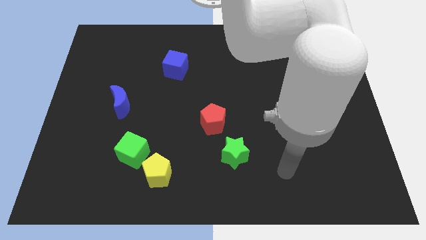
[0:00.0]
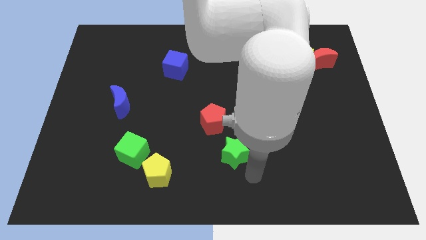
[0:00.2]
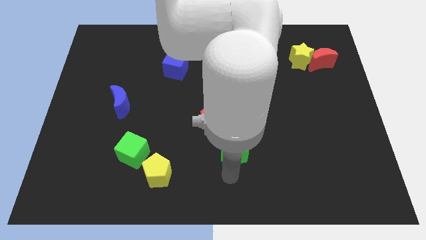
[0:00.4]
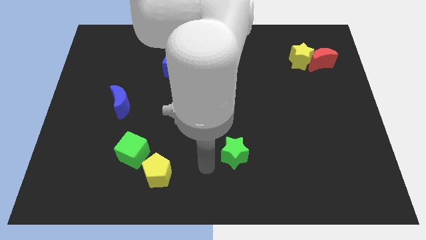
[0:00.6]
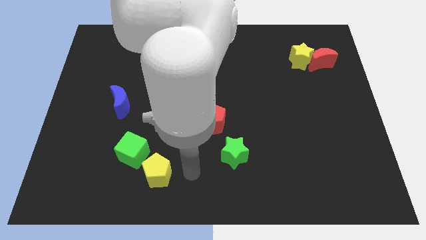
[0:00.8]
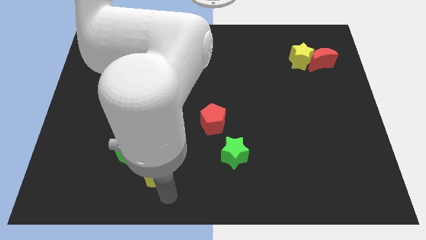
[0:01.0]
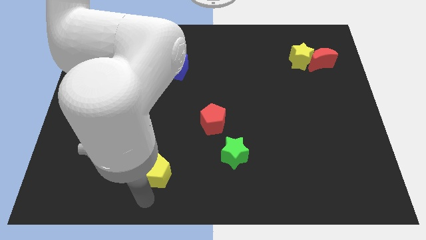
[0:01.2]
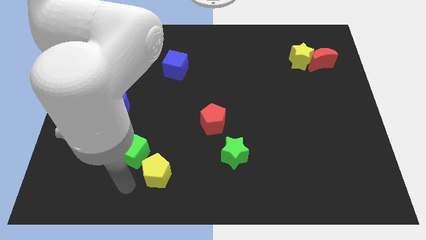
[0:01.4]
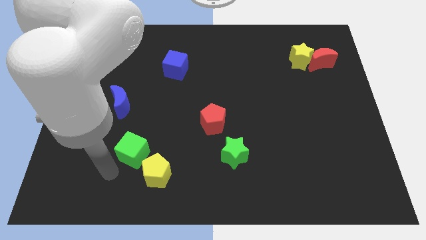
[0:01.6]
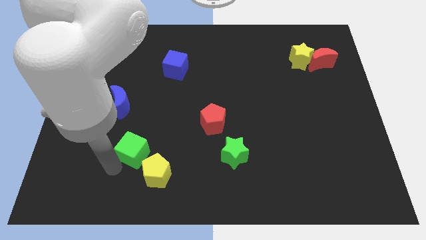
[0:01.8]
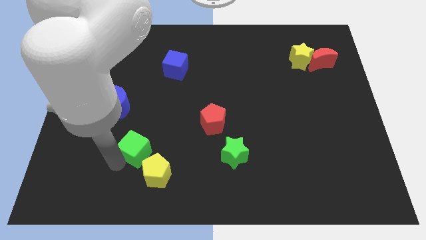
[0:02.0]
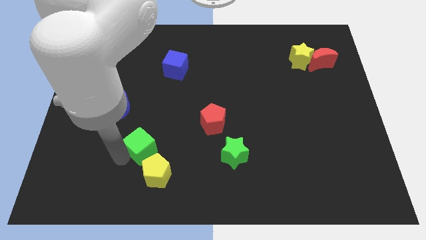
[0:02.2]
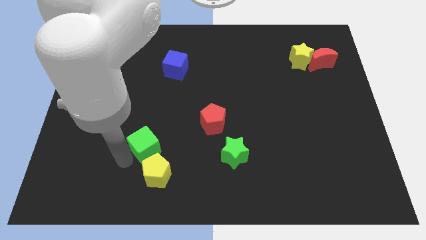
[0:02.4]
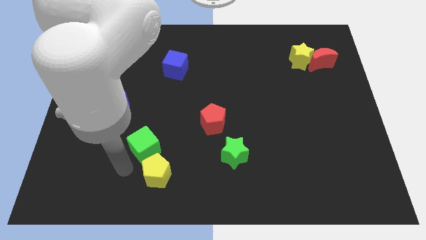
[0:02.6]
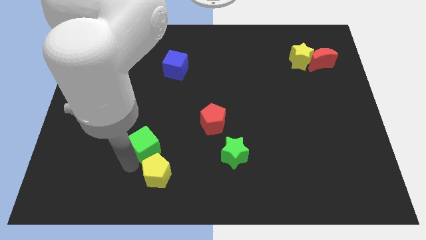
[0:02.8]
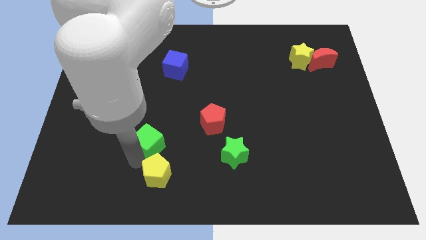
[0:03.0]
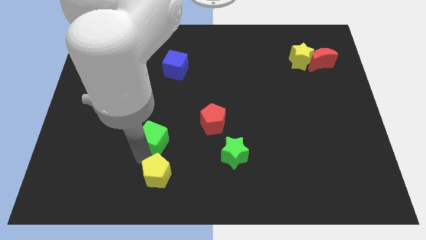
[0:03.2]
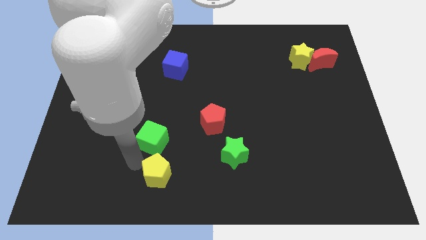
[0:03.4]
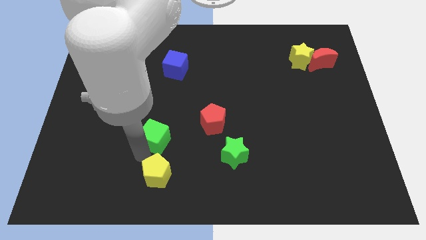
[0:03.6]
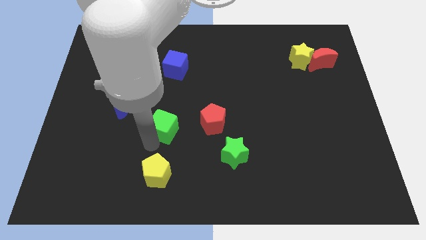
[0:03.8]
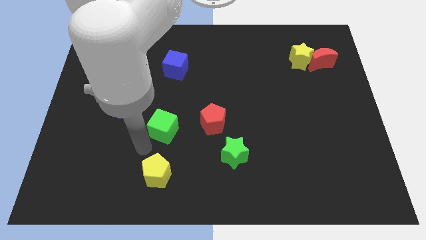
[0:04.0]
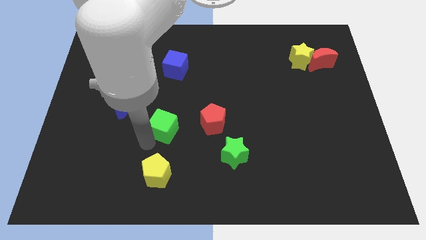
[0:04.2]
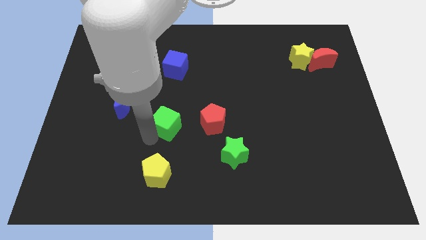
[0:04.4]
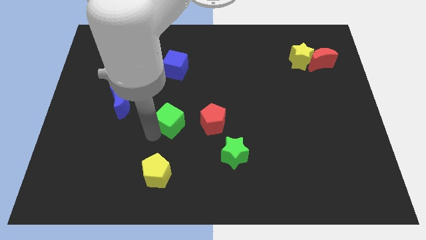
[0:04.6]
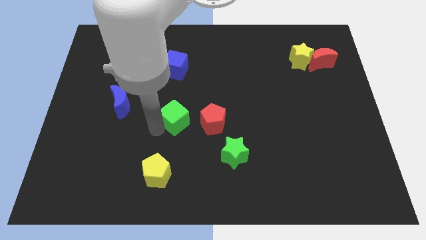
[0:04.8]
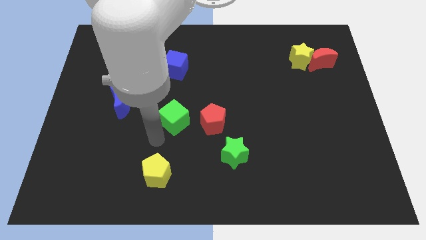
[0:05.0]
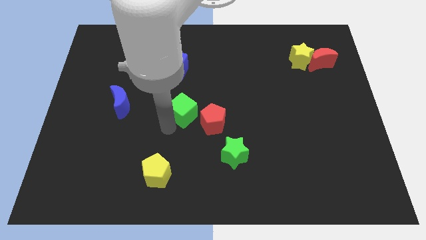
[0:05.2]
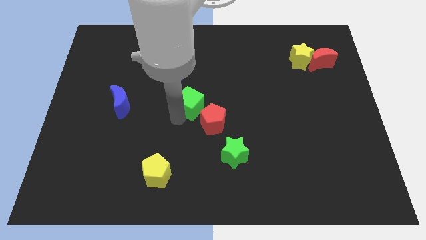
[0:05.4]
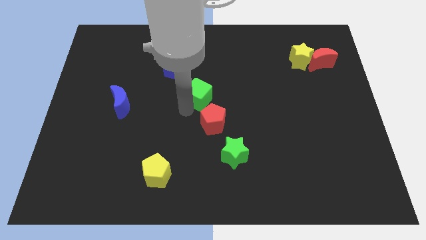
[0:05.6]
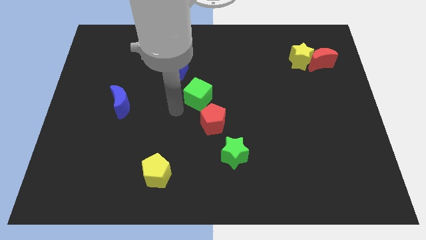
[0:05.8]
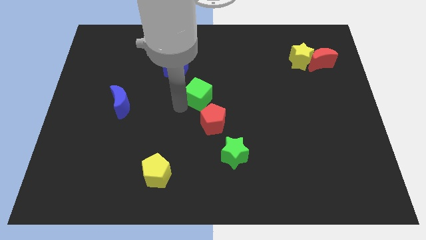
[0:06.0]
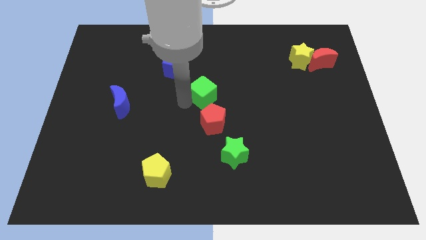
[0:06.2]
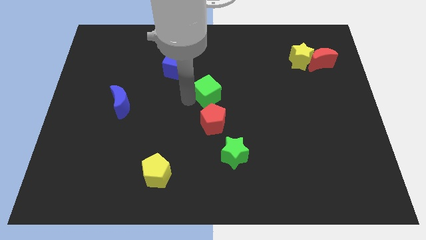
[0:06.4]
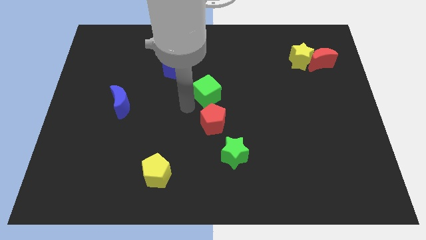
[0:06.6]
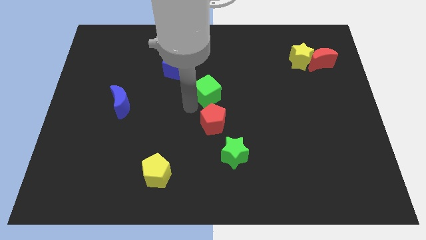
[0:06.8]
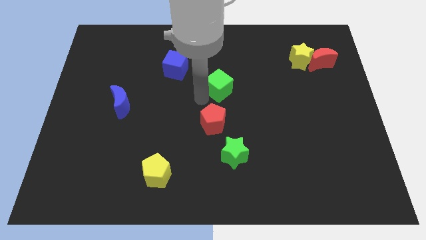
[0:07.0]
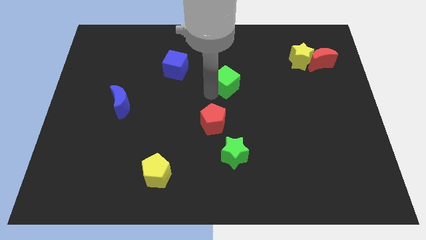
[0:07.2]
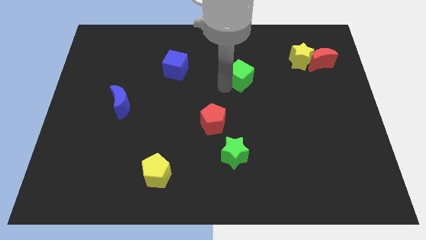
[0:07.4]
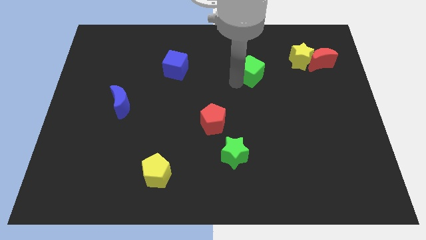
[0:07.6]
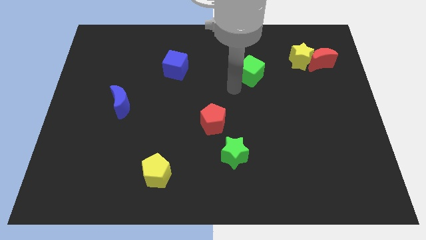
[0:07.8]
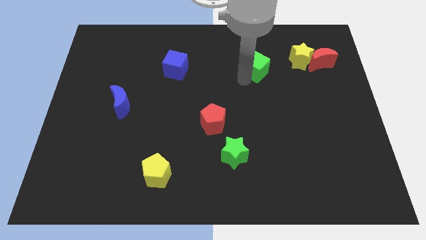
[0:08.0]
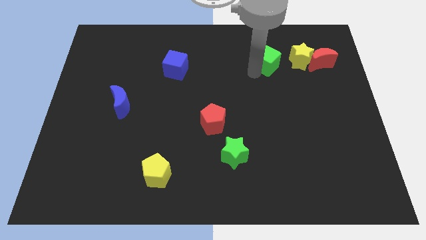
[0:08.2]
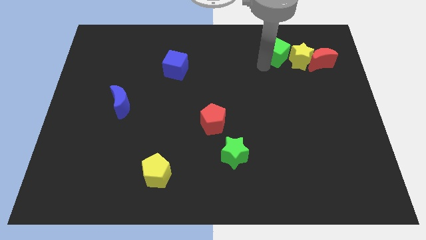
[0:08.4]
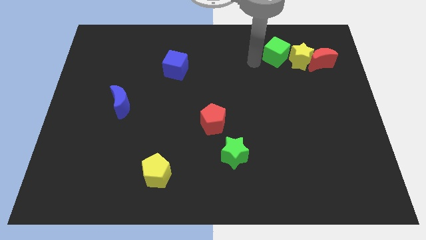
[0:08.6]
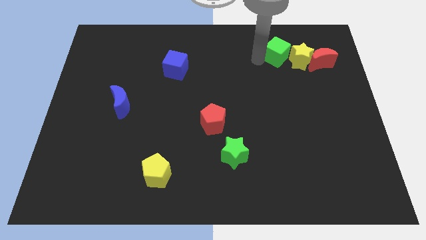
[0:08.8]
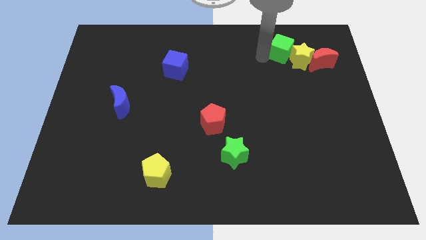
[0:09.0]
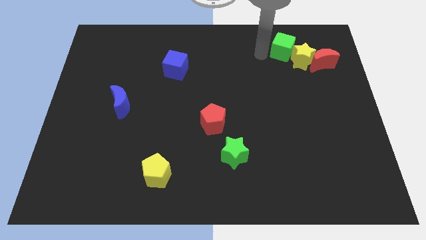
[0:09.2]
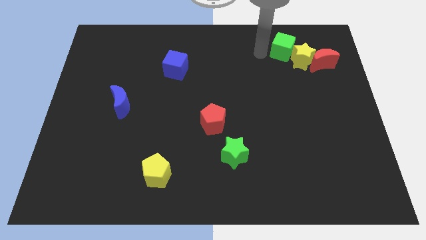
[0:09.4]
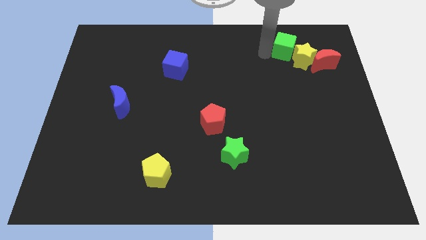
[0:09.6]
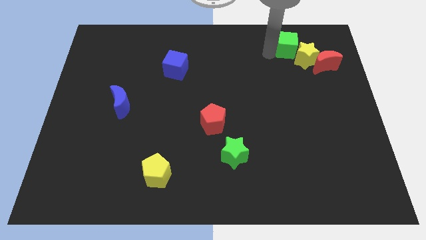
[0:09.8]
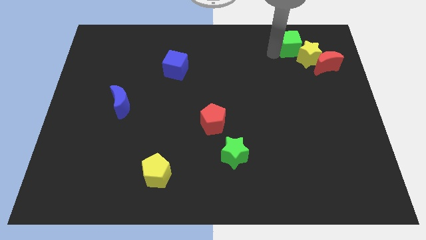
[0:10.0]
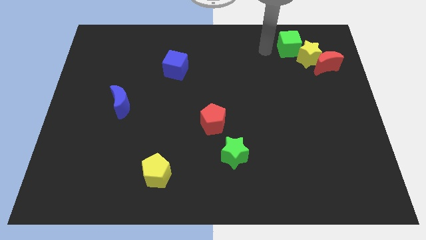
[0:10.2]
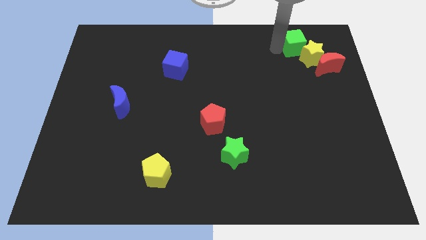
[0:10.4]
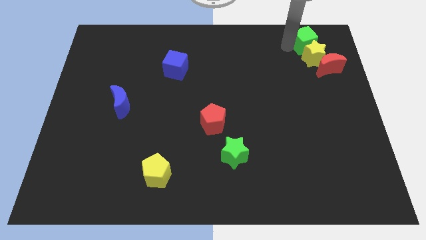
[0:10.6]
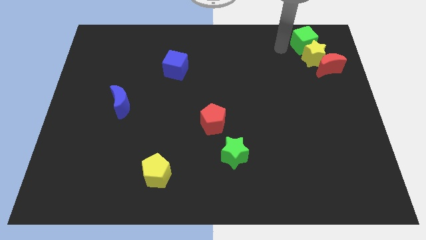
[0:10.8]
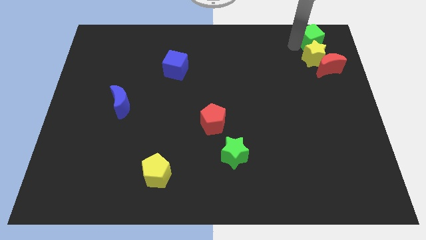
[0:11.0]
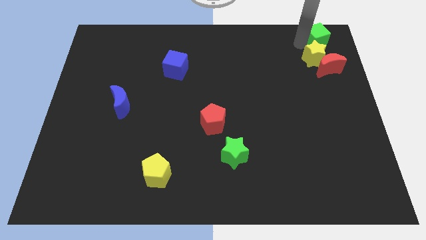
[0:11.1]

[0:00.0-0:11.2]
move the green cube to the upper right corner

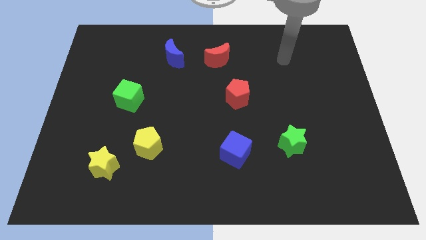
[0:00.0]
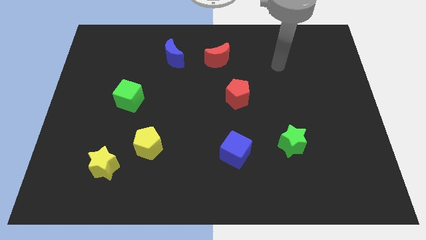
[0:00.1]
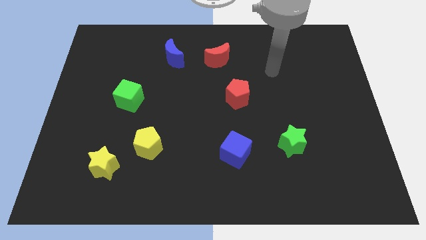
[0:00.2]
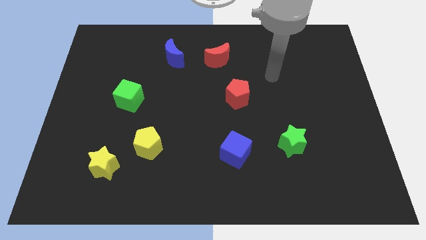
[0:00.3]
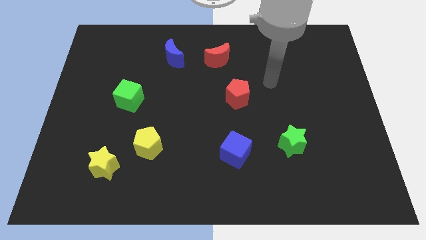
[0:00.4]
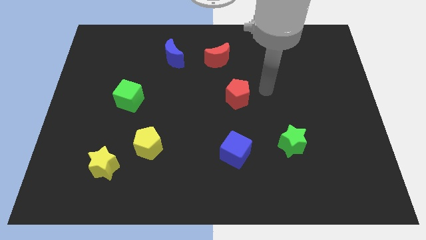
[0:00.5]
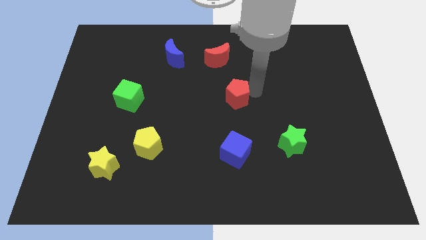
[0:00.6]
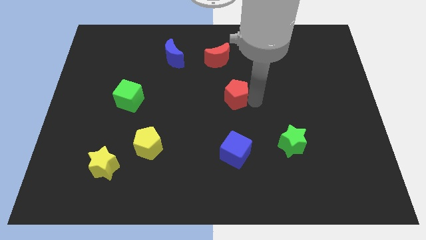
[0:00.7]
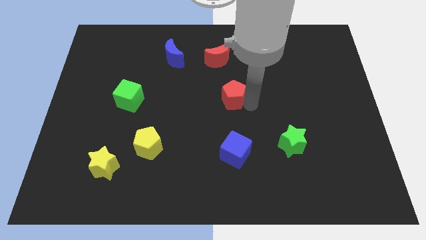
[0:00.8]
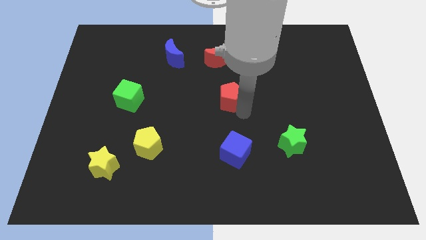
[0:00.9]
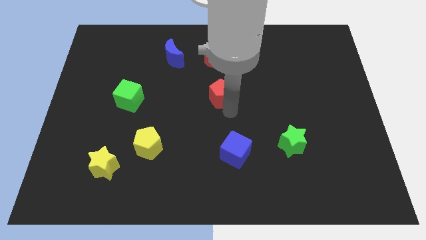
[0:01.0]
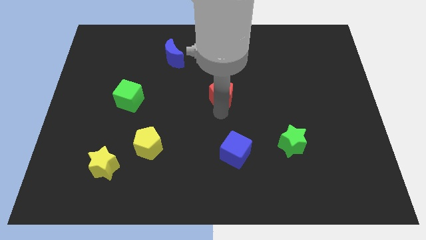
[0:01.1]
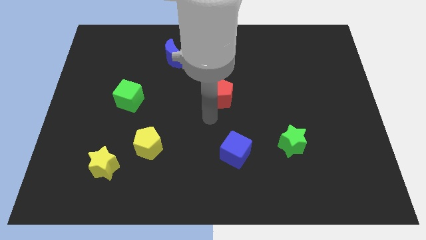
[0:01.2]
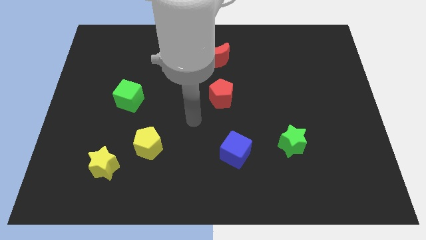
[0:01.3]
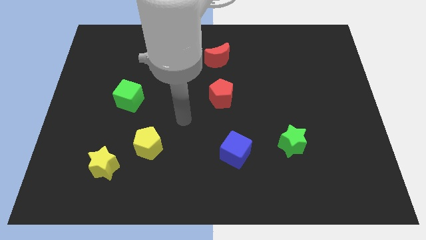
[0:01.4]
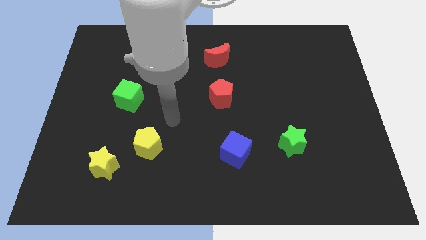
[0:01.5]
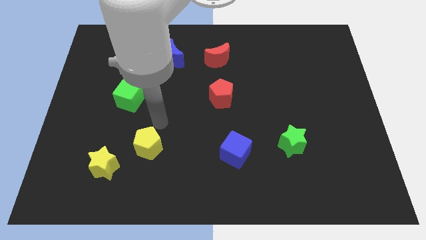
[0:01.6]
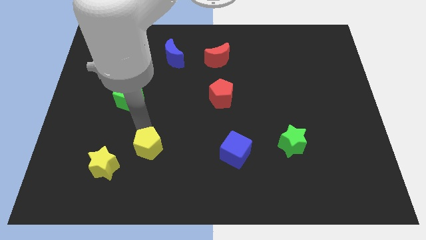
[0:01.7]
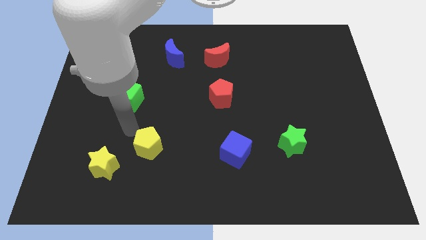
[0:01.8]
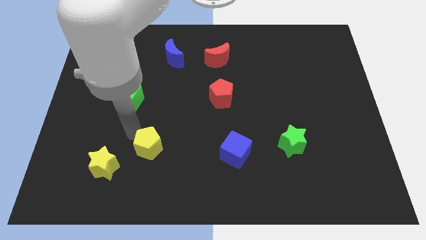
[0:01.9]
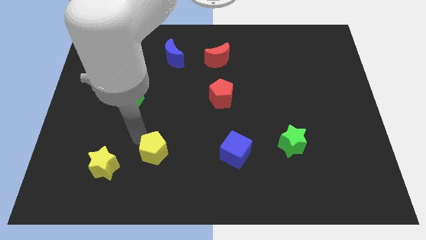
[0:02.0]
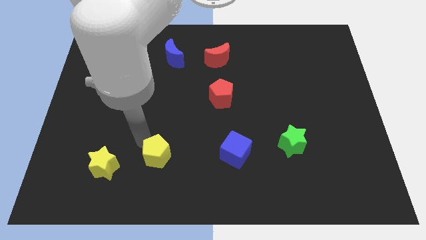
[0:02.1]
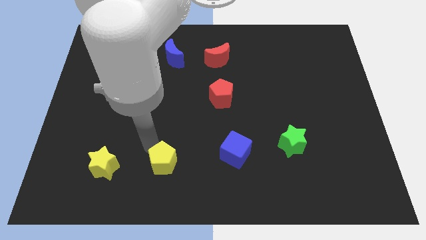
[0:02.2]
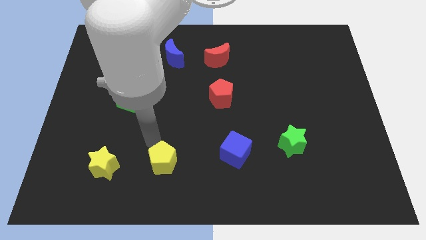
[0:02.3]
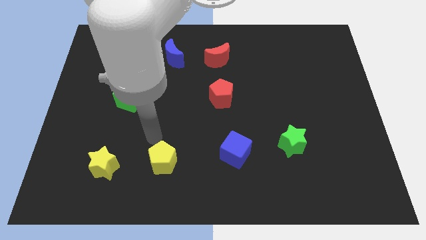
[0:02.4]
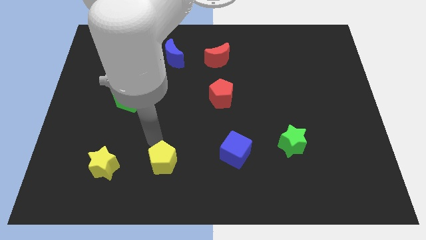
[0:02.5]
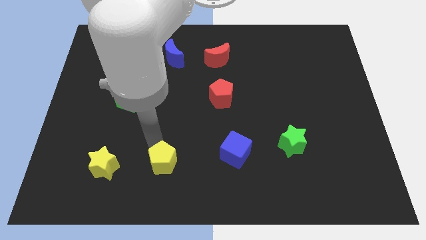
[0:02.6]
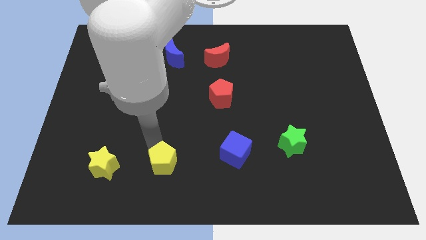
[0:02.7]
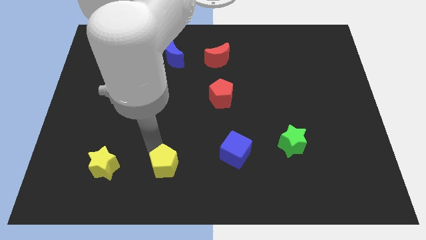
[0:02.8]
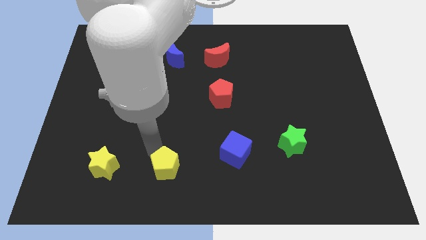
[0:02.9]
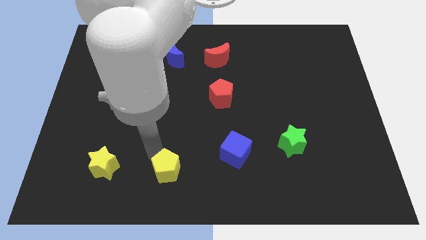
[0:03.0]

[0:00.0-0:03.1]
push the yellow pentagon to the bottom
